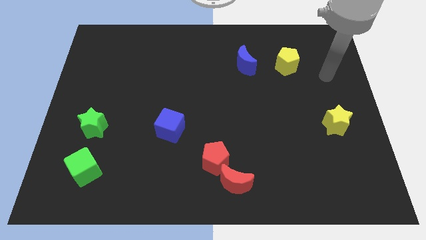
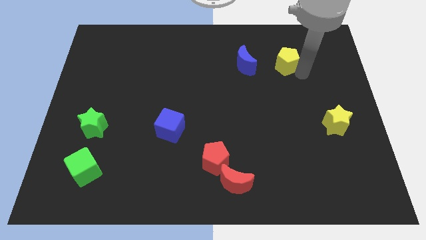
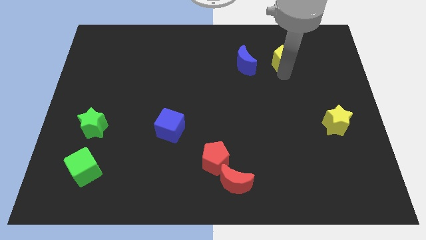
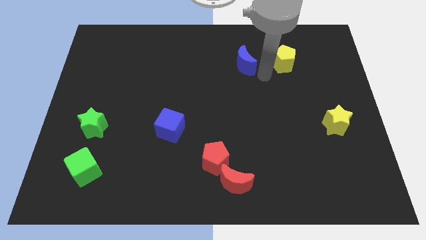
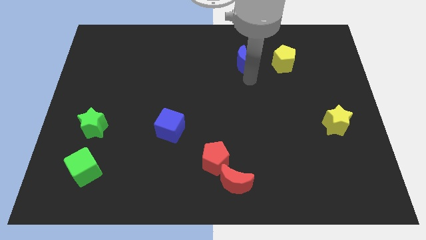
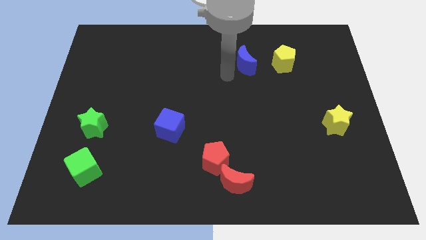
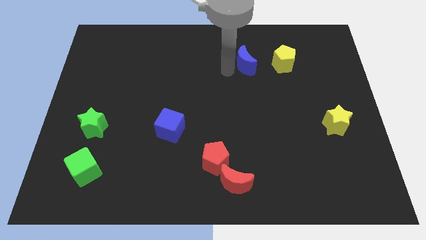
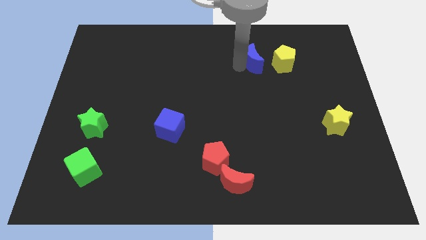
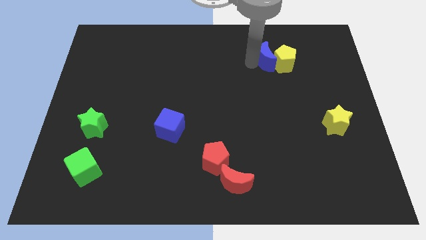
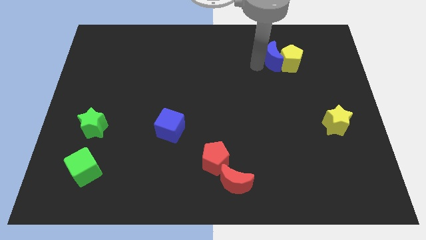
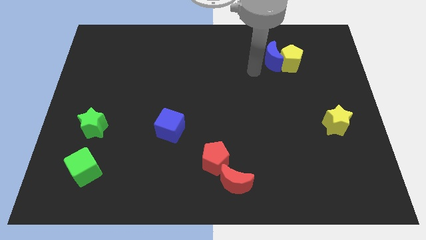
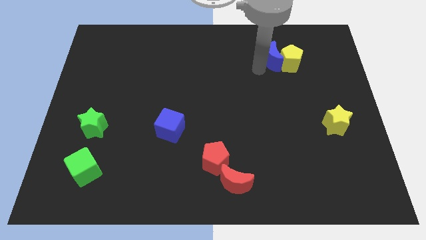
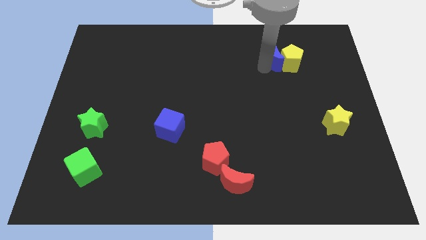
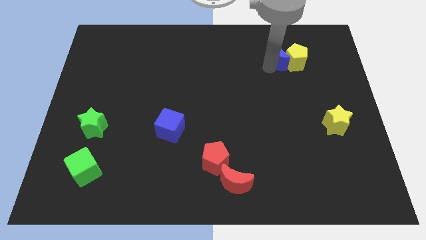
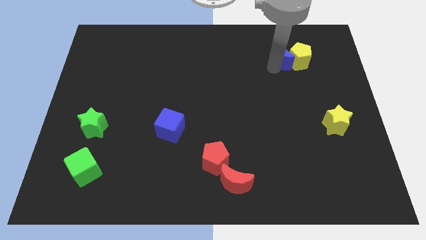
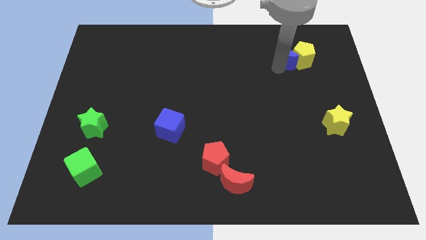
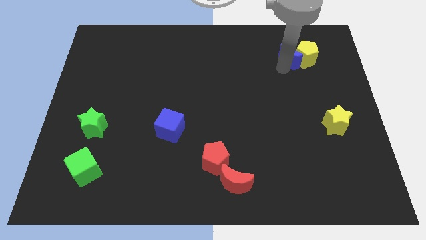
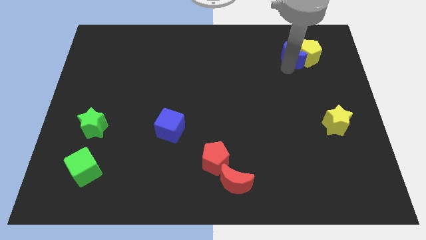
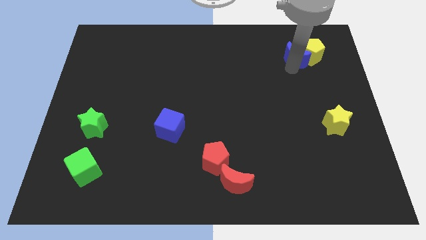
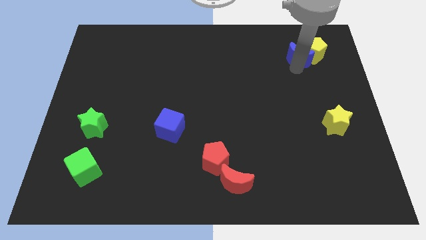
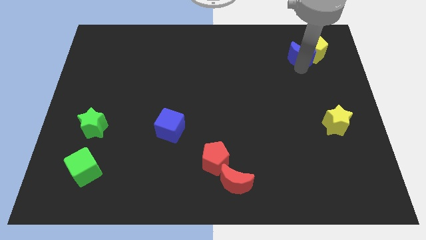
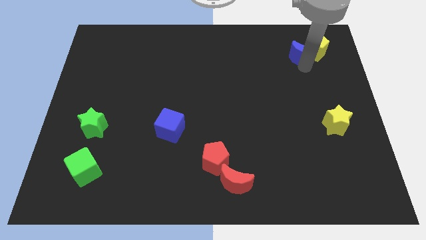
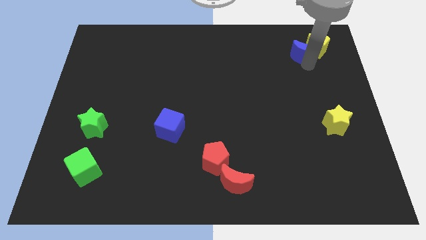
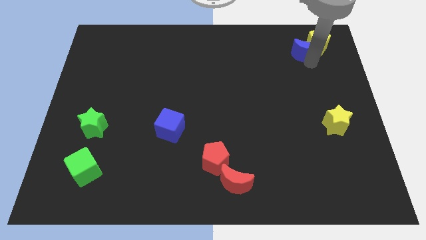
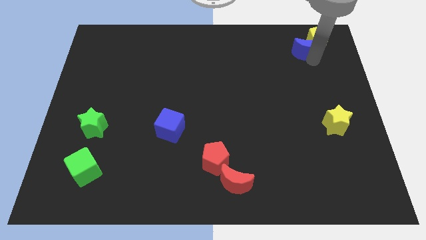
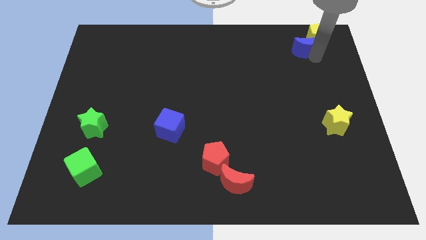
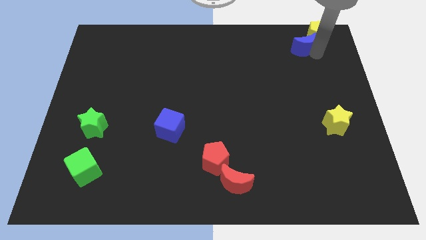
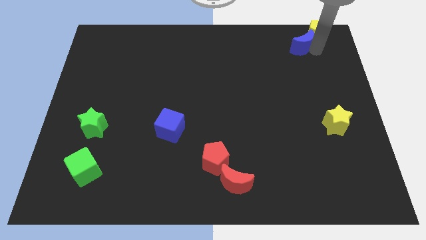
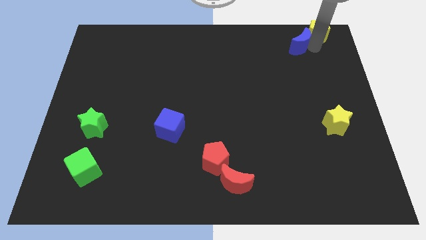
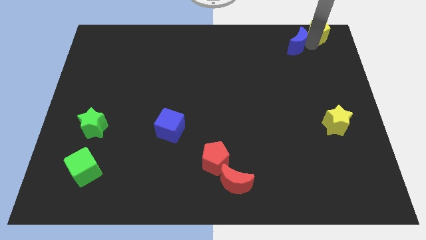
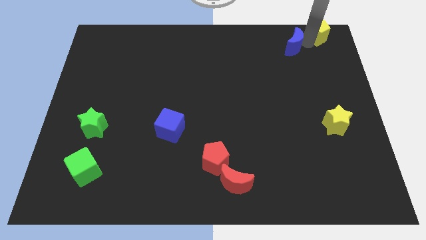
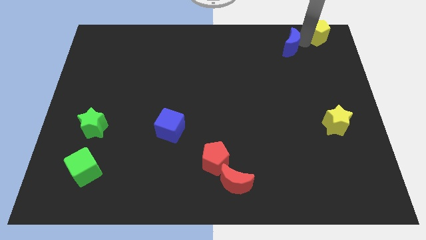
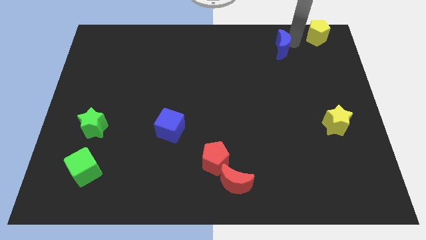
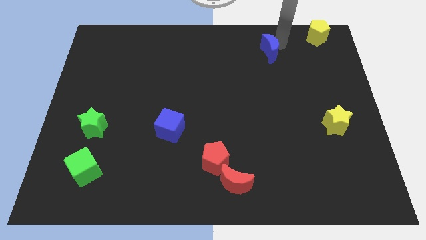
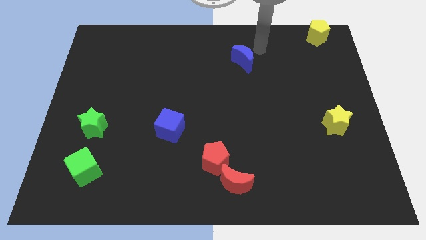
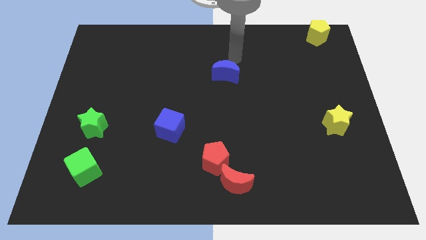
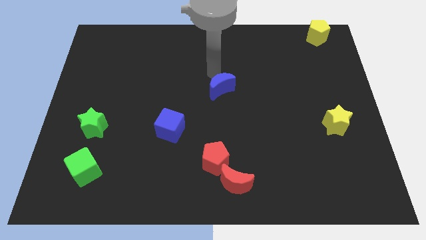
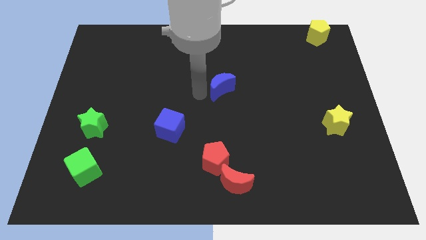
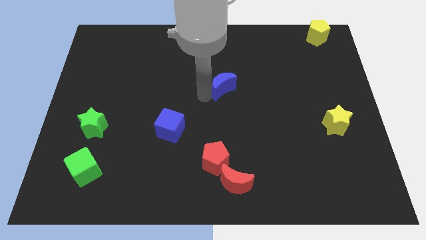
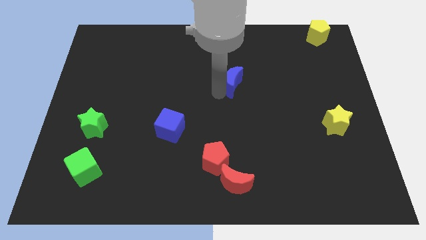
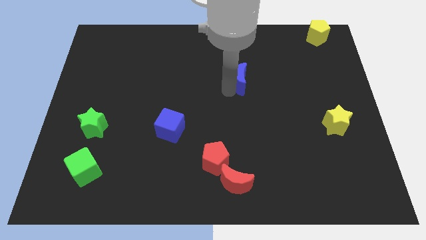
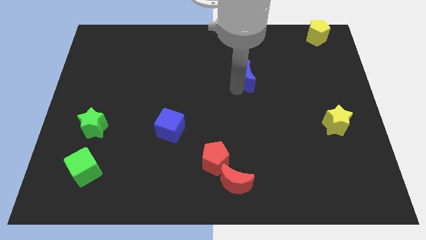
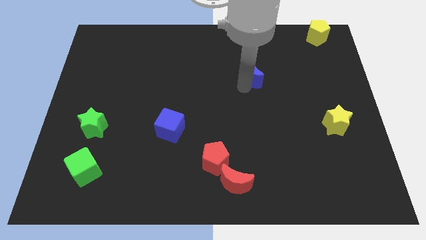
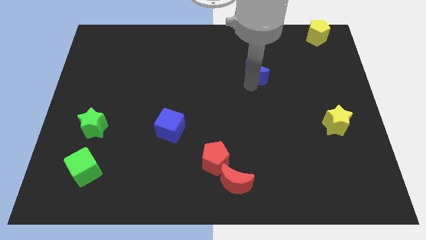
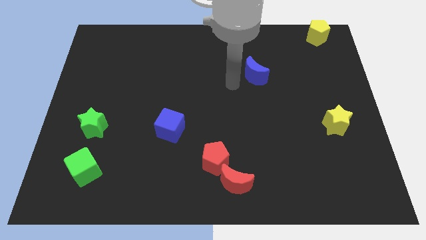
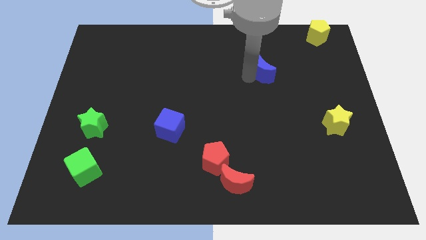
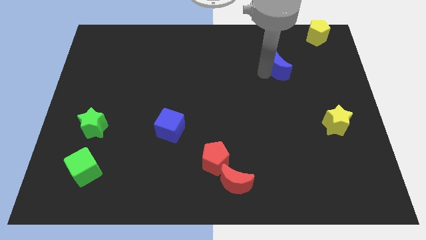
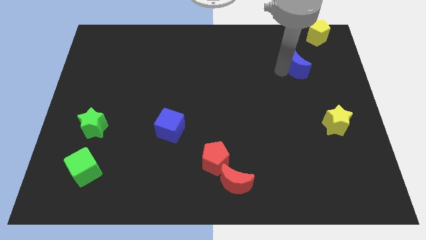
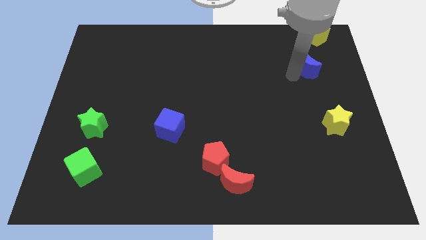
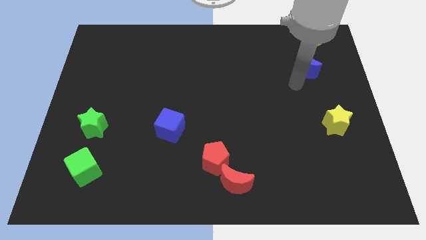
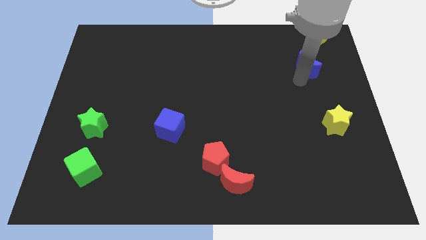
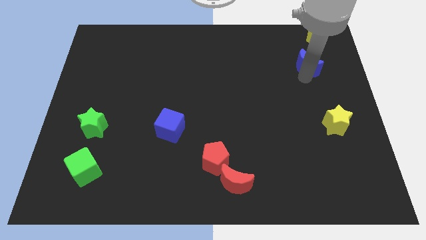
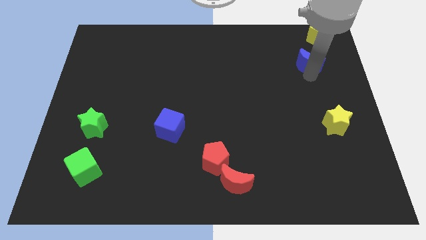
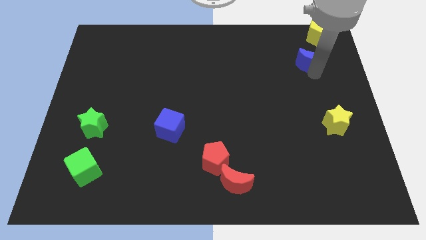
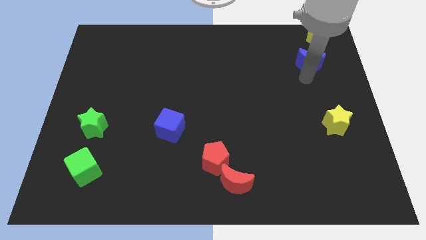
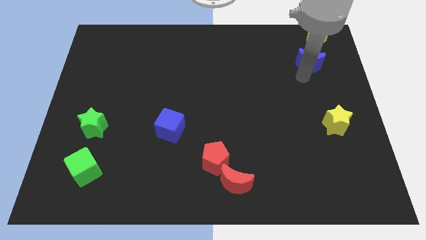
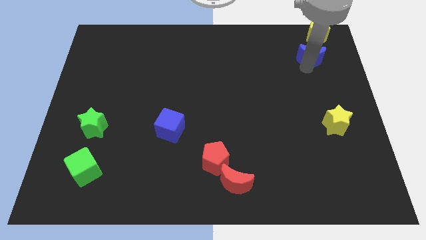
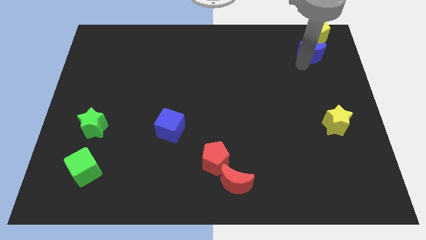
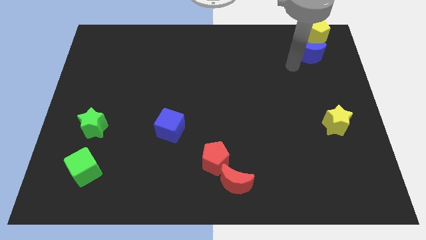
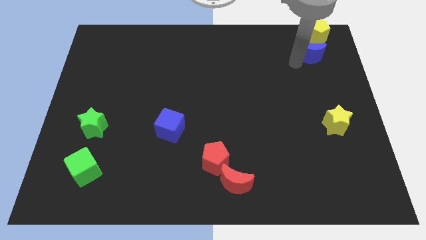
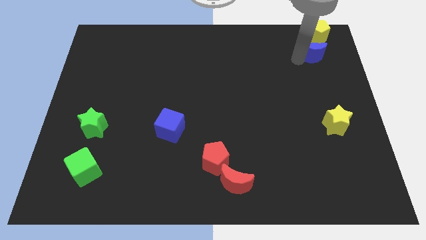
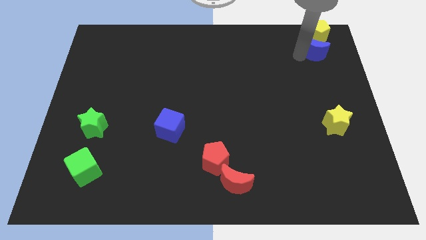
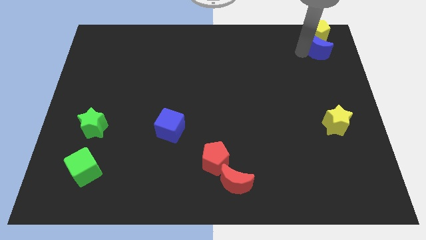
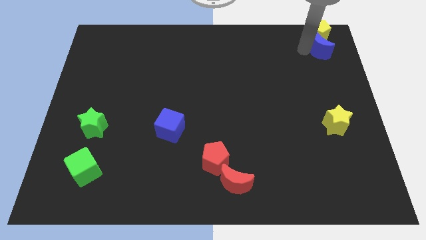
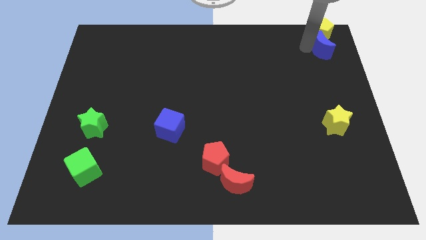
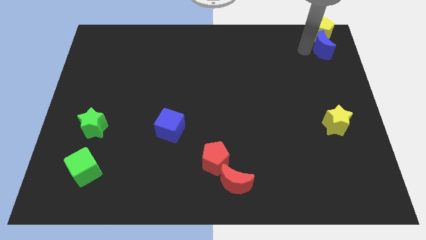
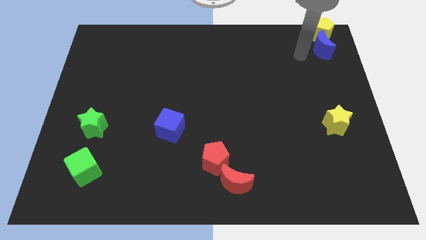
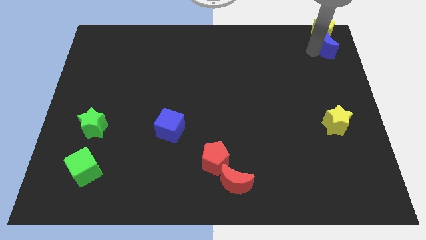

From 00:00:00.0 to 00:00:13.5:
put the blue moon to the top right
